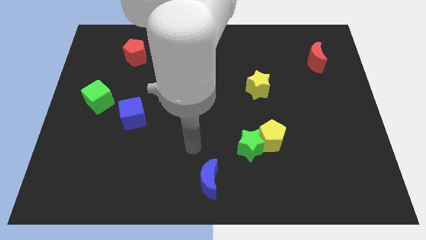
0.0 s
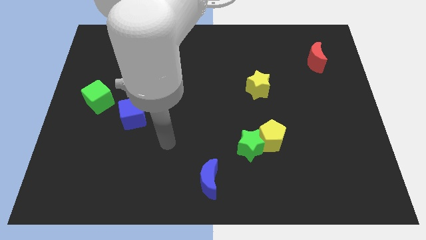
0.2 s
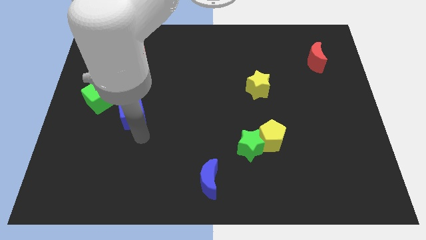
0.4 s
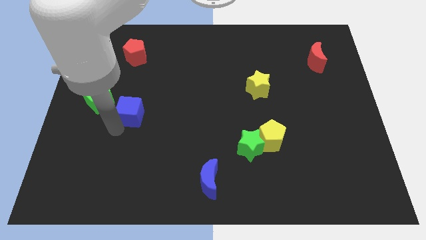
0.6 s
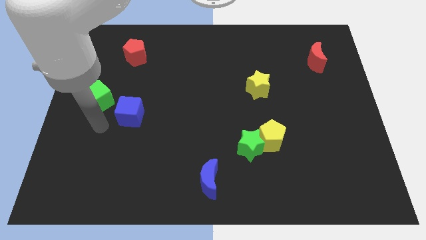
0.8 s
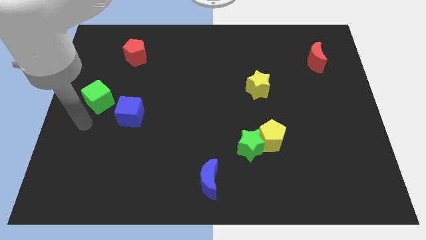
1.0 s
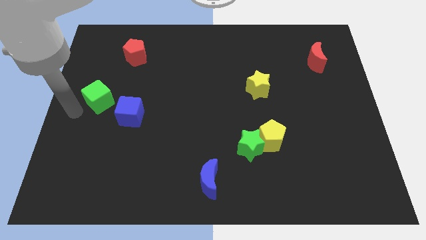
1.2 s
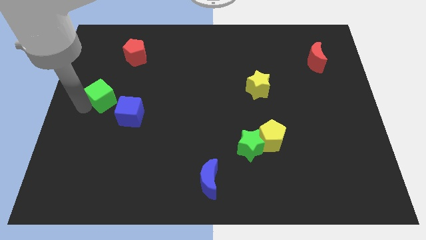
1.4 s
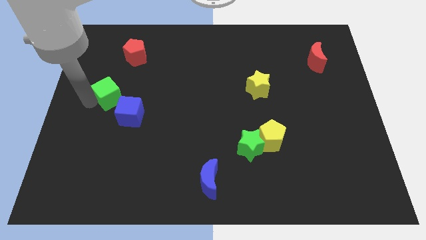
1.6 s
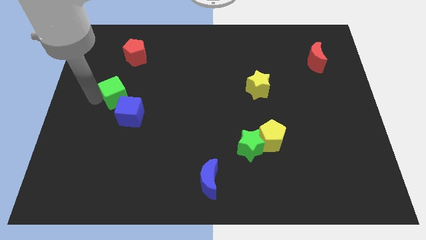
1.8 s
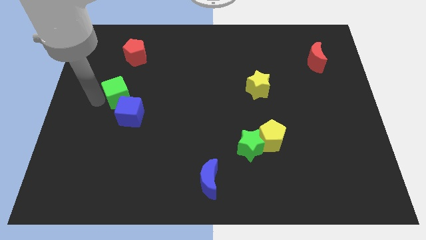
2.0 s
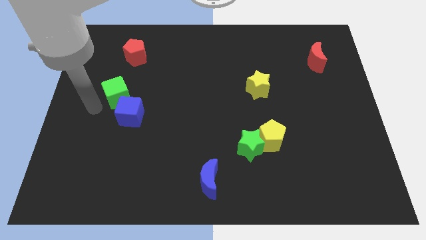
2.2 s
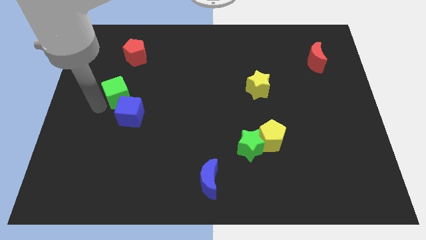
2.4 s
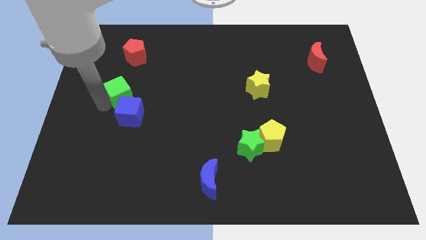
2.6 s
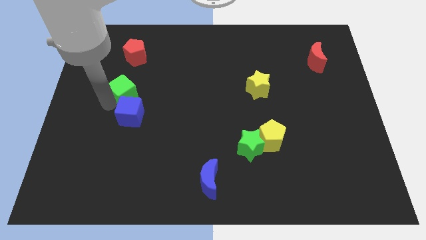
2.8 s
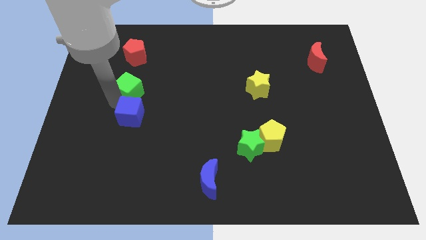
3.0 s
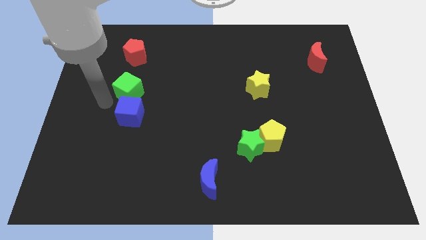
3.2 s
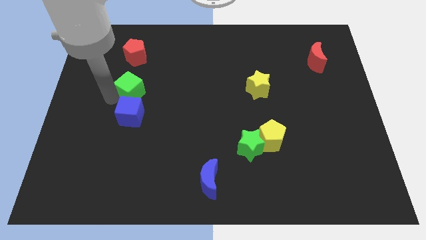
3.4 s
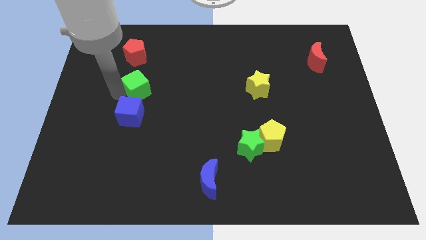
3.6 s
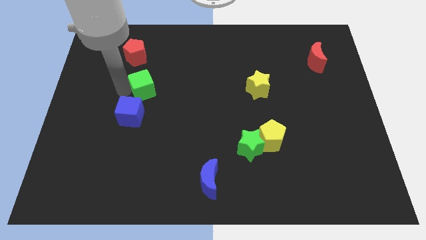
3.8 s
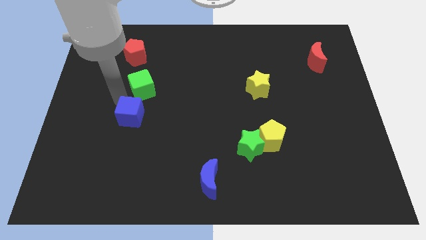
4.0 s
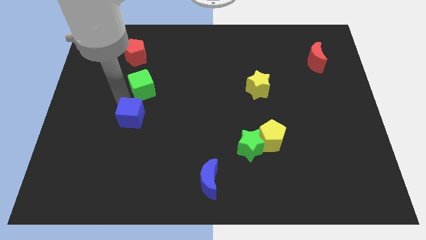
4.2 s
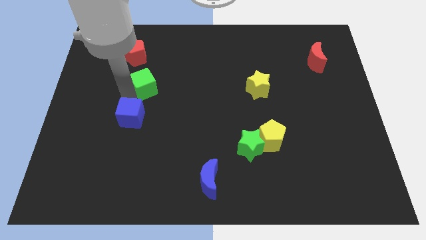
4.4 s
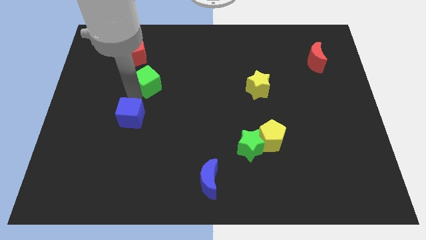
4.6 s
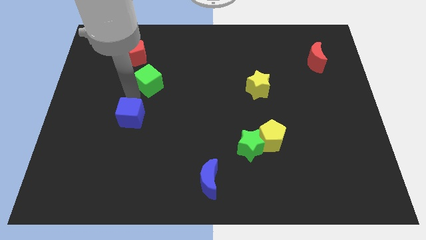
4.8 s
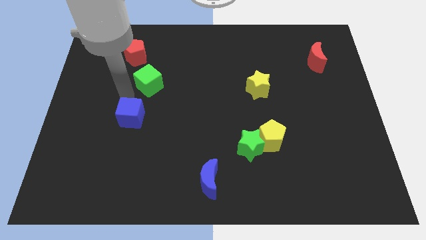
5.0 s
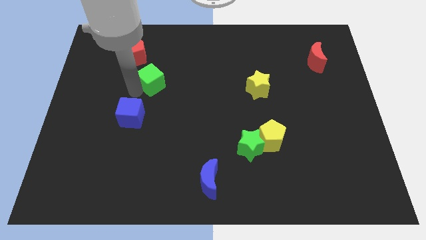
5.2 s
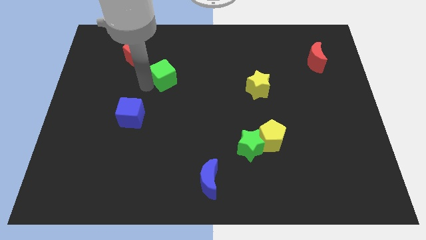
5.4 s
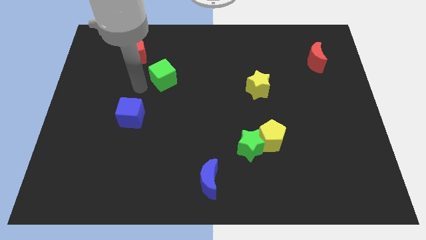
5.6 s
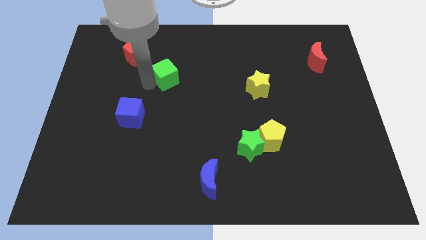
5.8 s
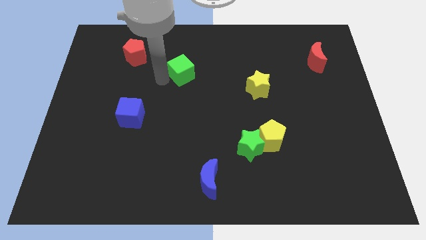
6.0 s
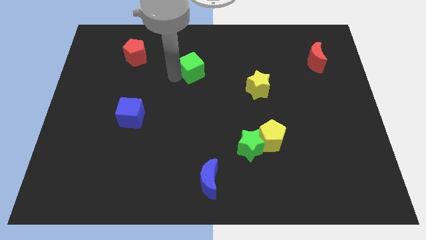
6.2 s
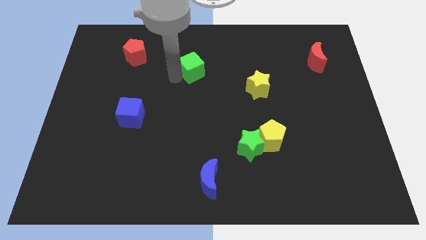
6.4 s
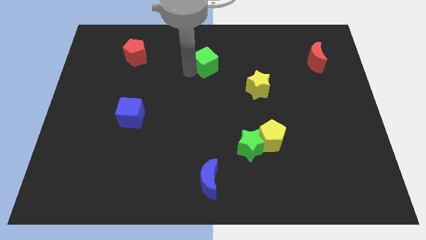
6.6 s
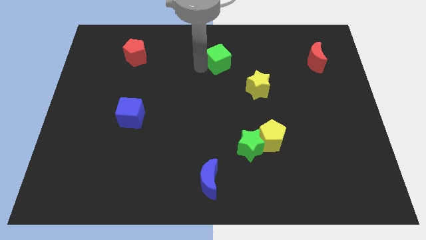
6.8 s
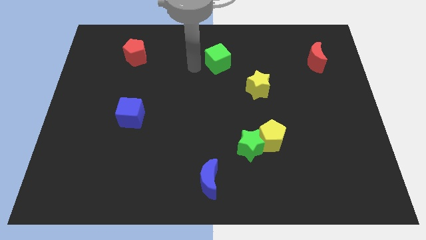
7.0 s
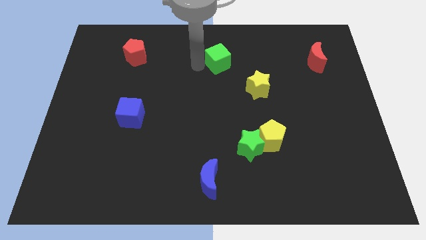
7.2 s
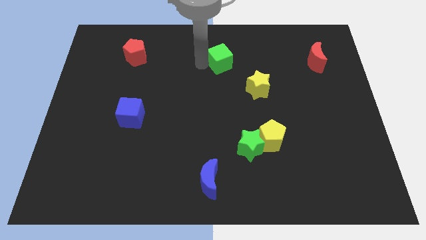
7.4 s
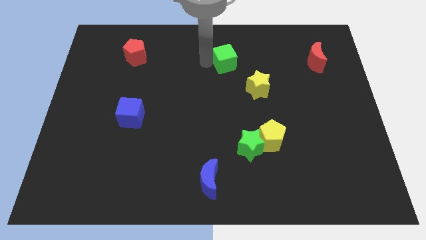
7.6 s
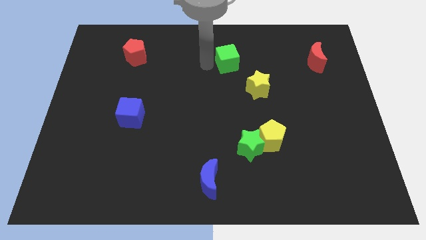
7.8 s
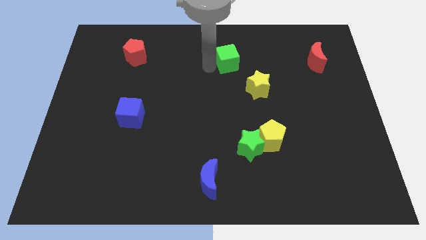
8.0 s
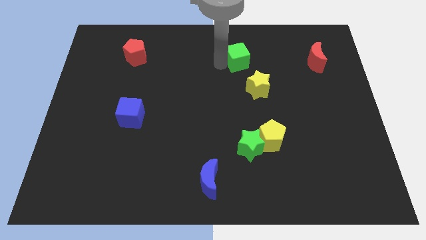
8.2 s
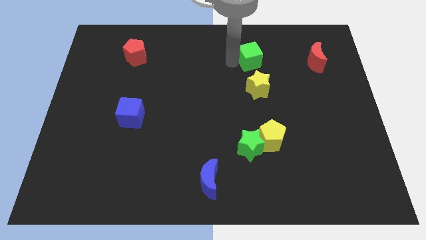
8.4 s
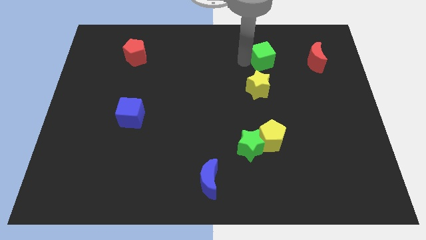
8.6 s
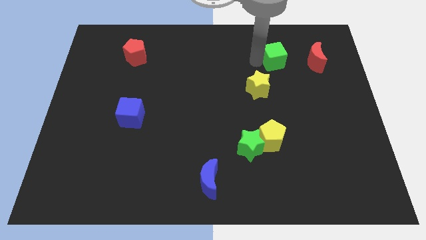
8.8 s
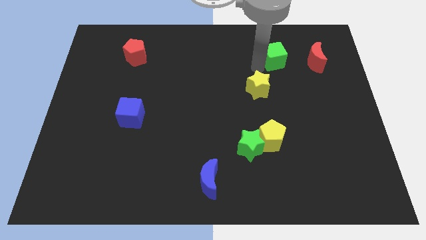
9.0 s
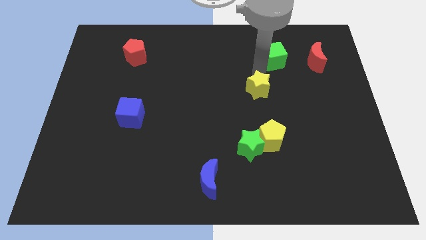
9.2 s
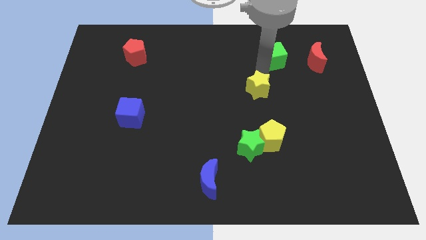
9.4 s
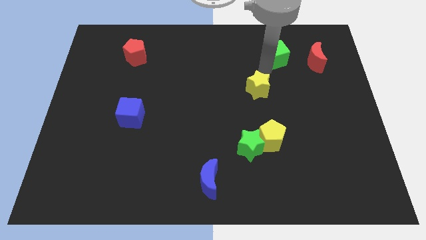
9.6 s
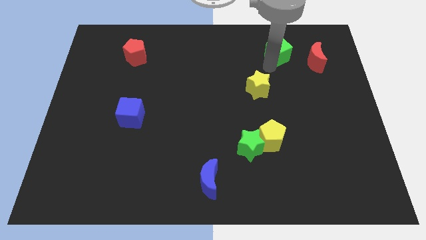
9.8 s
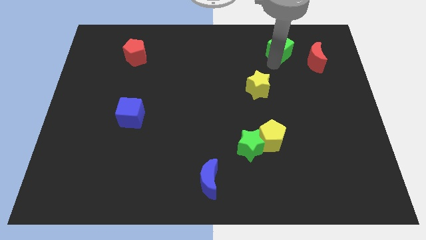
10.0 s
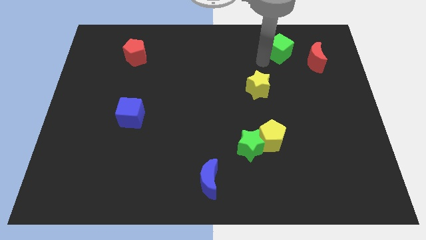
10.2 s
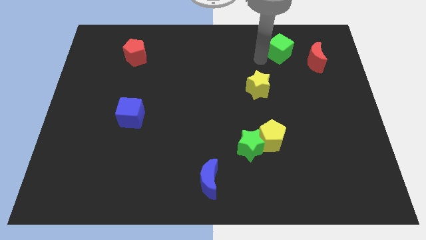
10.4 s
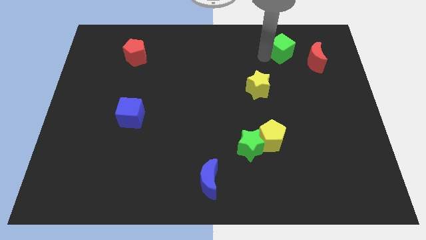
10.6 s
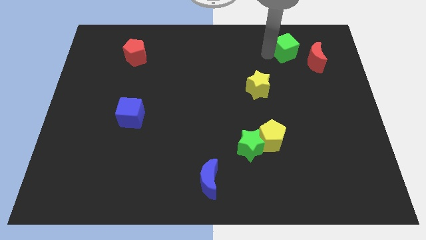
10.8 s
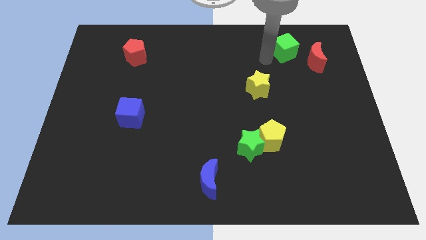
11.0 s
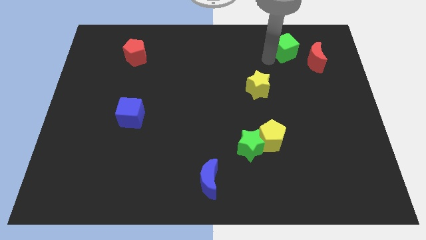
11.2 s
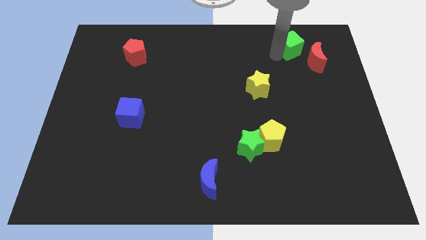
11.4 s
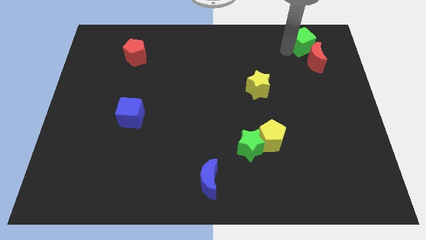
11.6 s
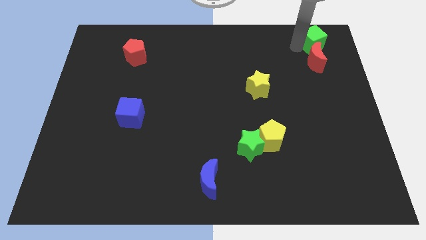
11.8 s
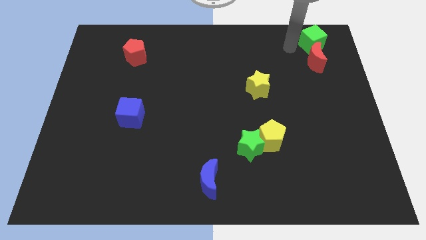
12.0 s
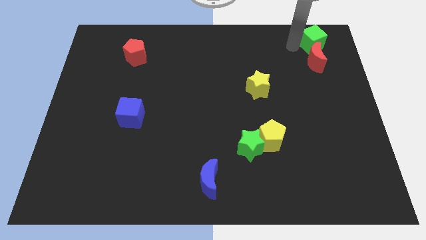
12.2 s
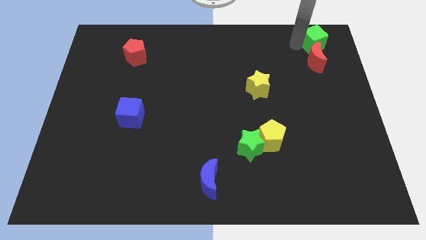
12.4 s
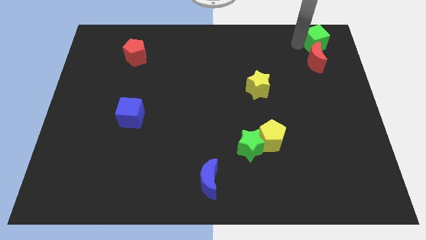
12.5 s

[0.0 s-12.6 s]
slide the green cube to the top right

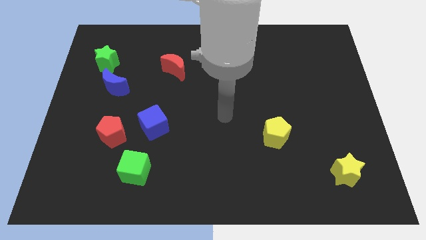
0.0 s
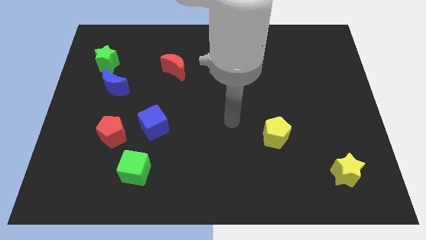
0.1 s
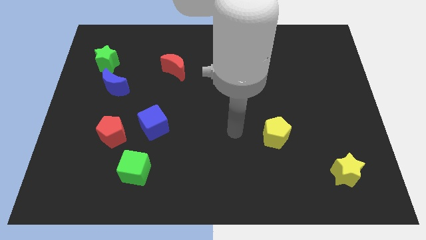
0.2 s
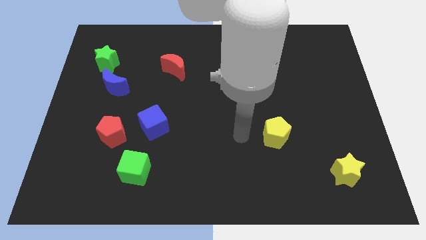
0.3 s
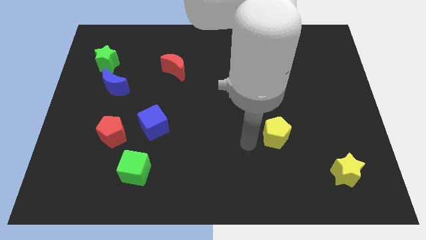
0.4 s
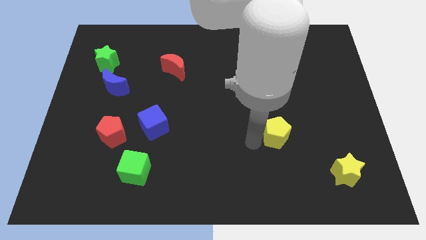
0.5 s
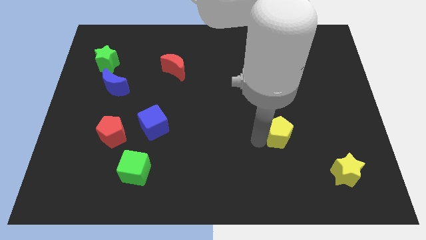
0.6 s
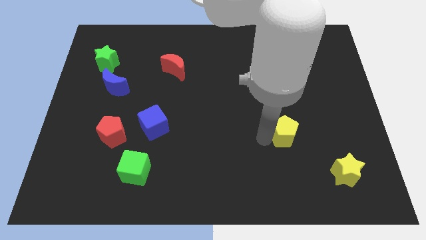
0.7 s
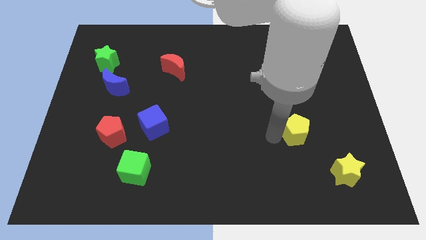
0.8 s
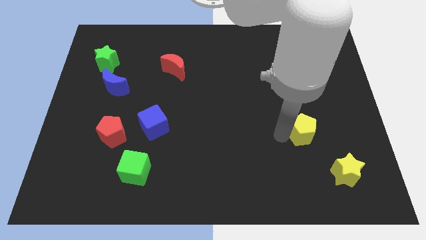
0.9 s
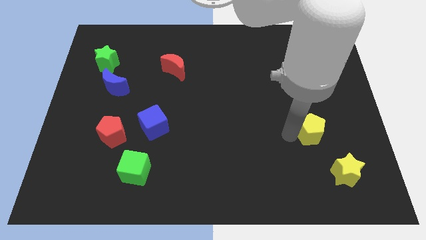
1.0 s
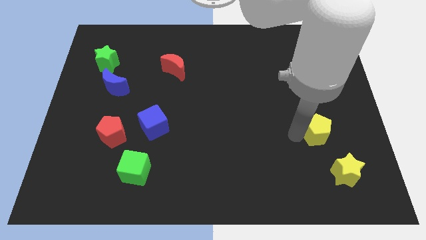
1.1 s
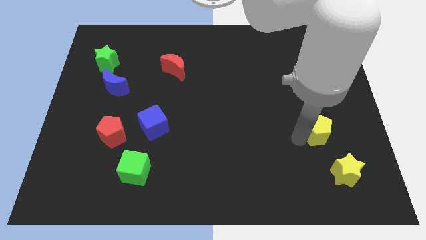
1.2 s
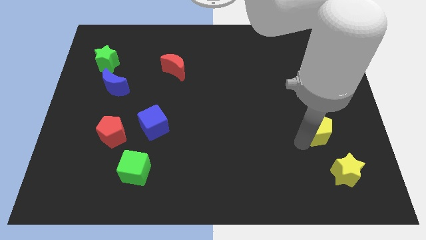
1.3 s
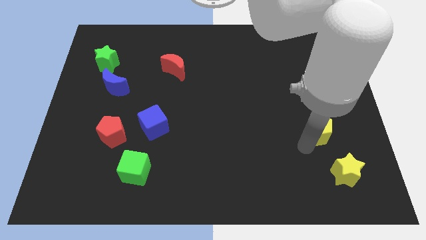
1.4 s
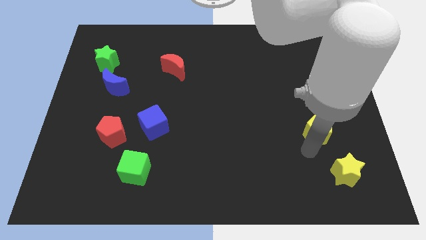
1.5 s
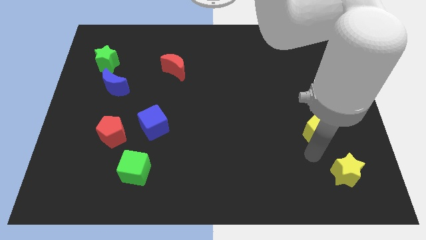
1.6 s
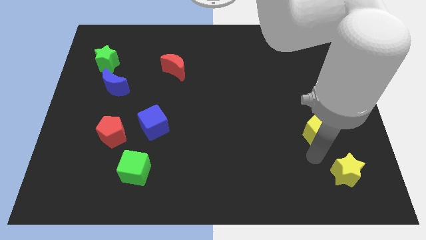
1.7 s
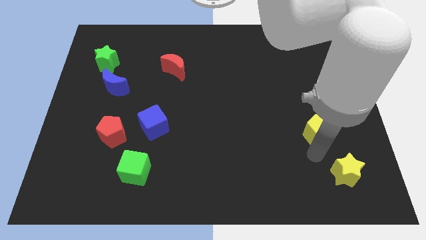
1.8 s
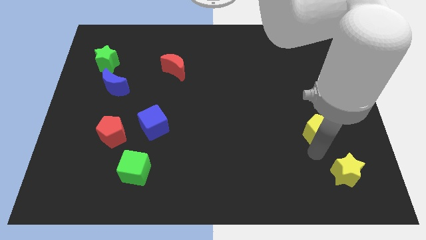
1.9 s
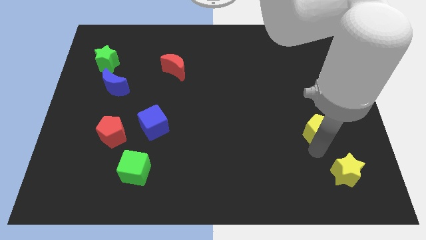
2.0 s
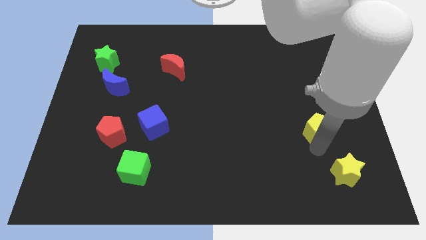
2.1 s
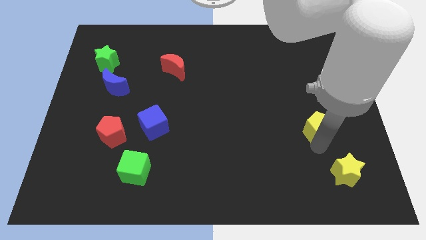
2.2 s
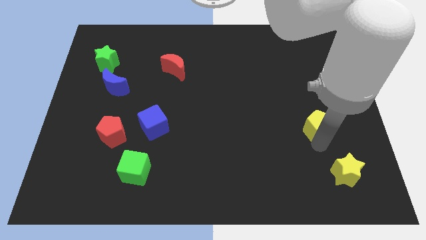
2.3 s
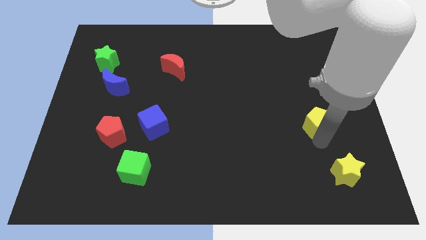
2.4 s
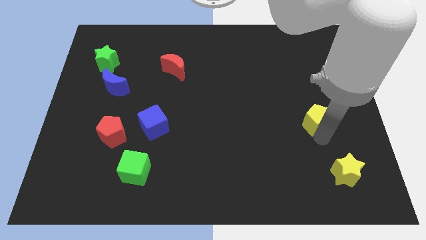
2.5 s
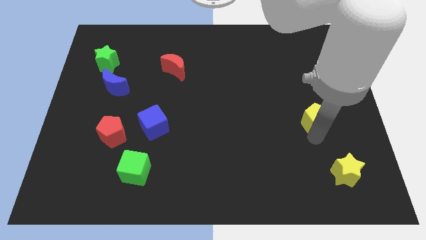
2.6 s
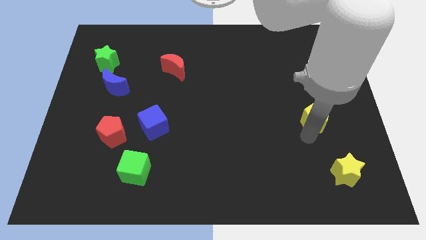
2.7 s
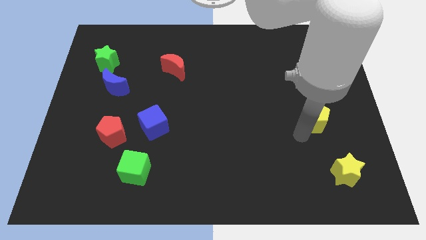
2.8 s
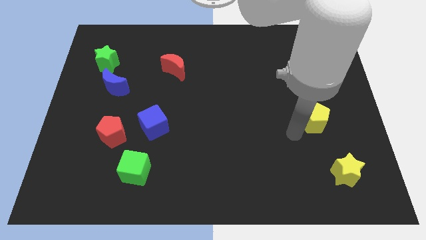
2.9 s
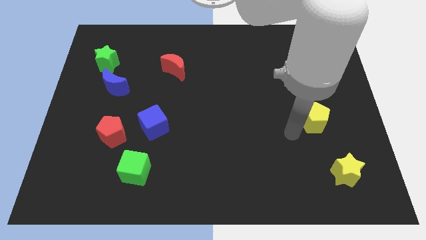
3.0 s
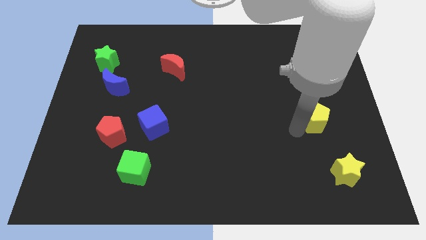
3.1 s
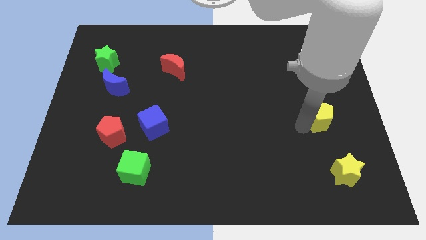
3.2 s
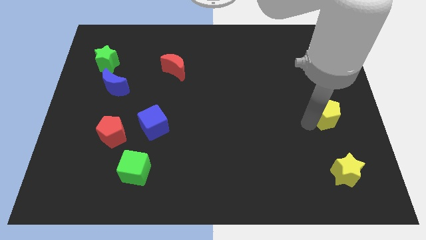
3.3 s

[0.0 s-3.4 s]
put the yellow pentagon to the center right
